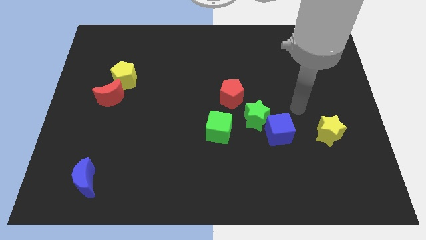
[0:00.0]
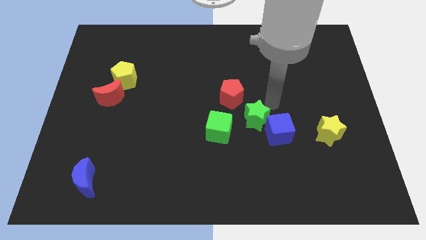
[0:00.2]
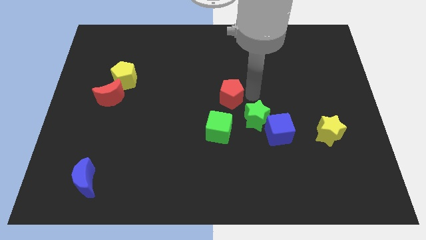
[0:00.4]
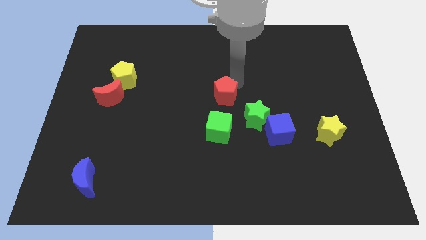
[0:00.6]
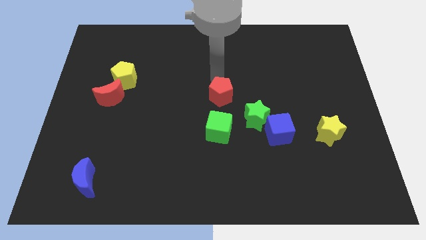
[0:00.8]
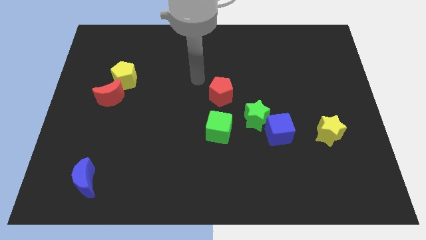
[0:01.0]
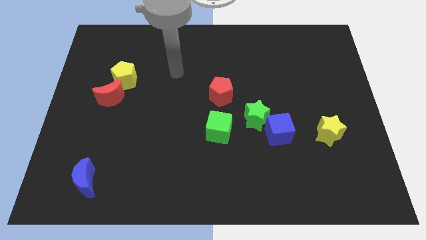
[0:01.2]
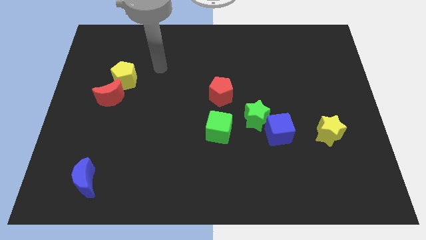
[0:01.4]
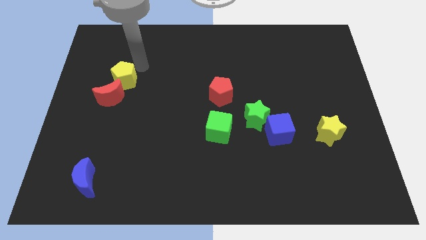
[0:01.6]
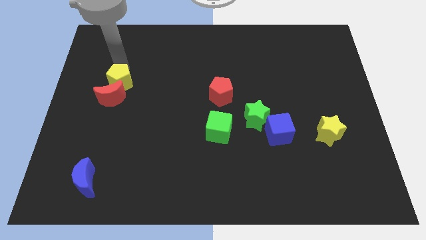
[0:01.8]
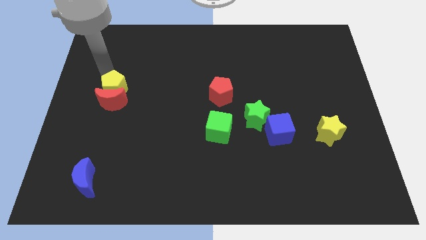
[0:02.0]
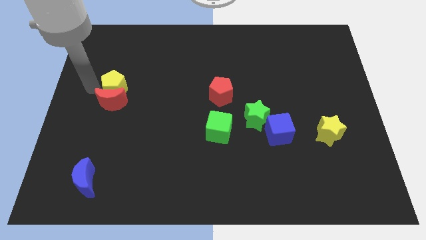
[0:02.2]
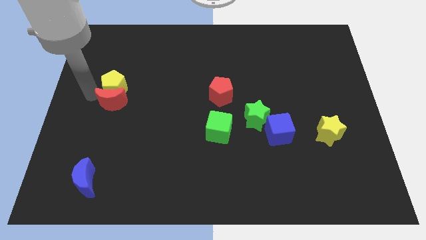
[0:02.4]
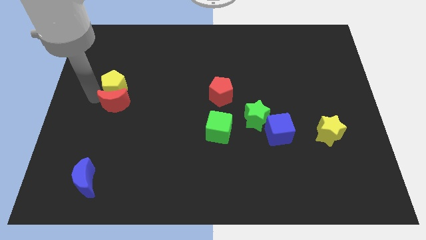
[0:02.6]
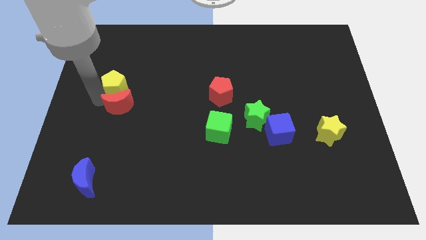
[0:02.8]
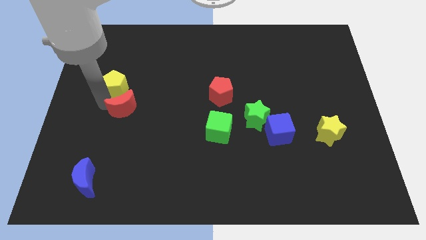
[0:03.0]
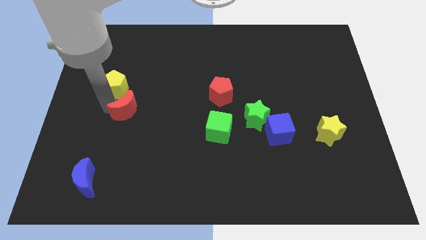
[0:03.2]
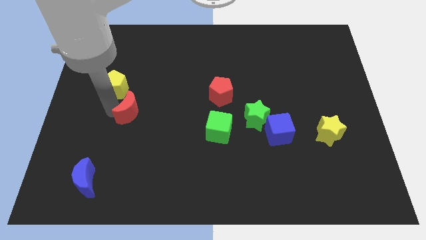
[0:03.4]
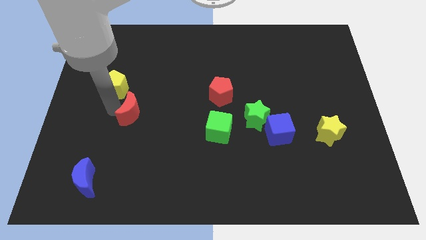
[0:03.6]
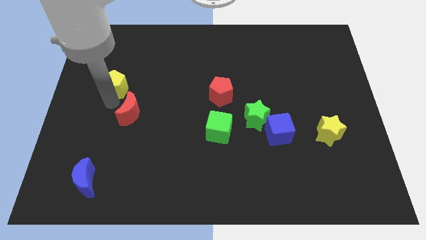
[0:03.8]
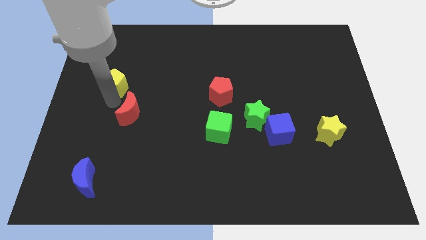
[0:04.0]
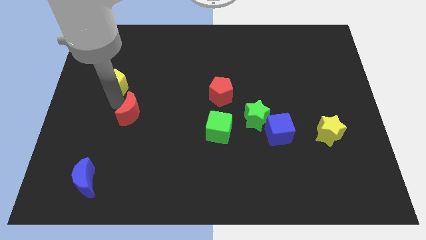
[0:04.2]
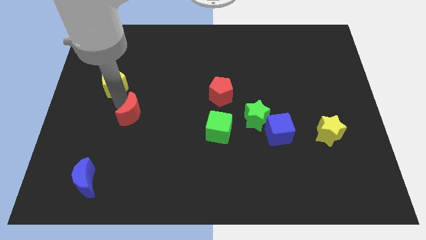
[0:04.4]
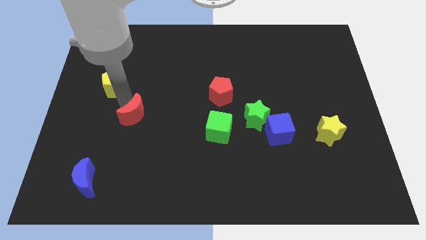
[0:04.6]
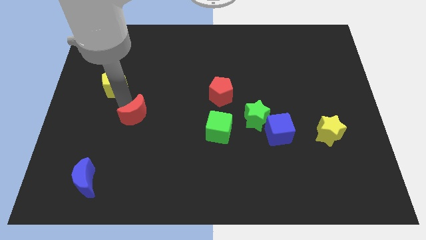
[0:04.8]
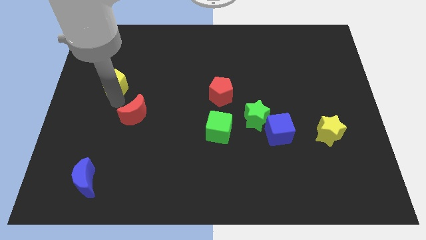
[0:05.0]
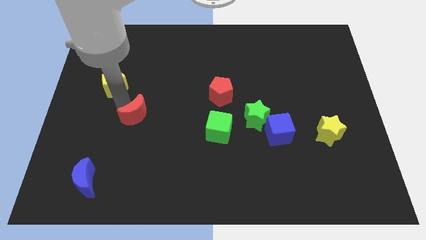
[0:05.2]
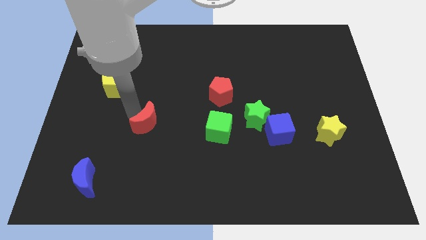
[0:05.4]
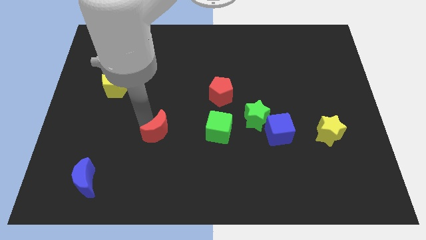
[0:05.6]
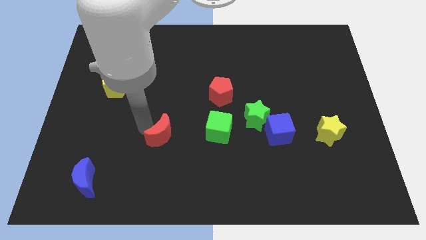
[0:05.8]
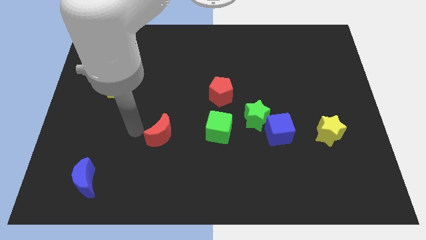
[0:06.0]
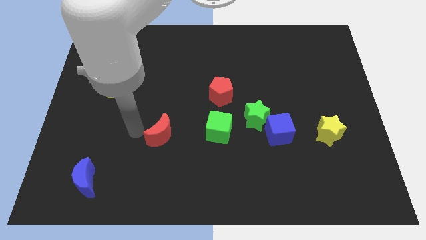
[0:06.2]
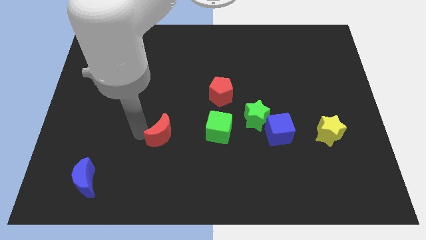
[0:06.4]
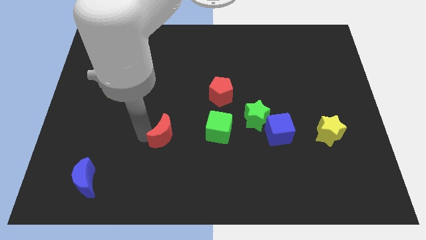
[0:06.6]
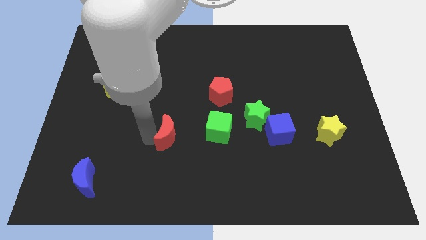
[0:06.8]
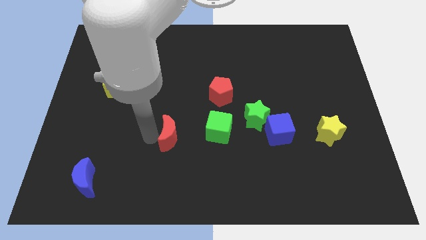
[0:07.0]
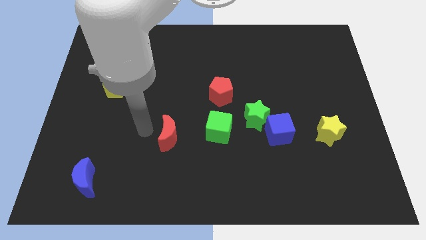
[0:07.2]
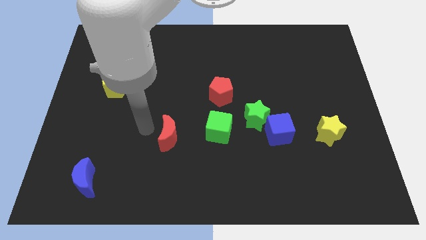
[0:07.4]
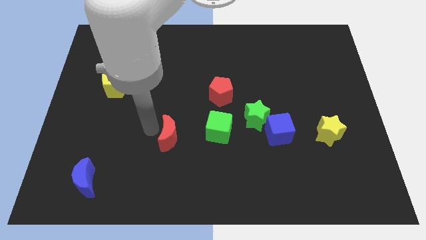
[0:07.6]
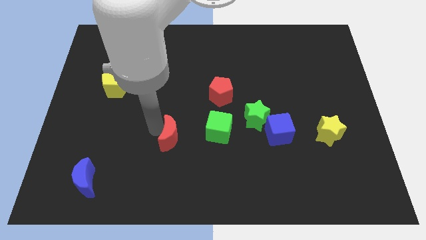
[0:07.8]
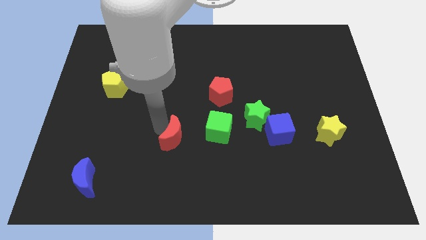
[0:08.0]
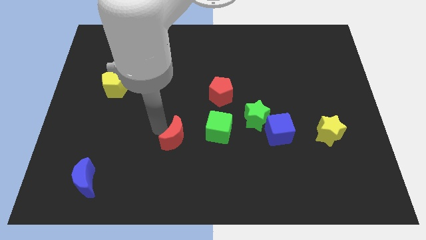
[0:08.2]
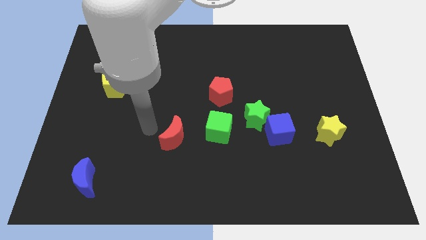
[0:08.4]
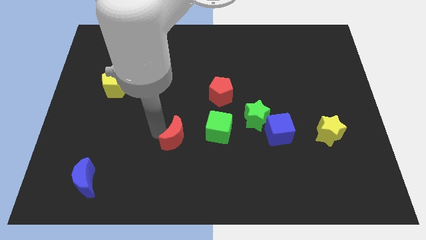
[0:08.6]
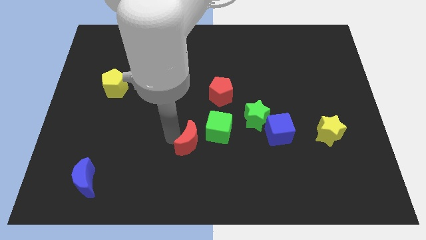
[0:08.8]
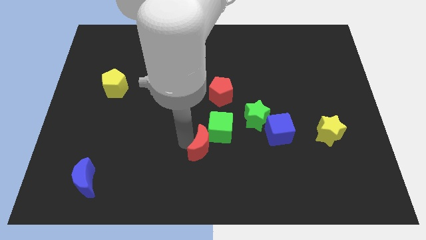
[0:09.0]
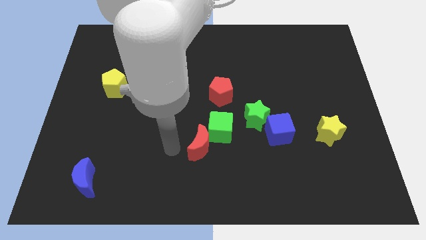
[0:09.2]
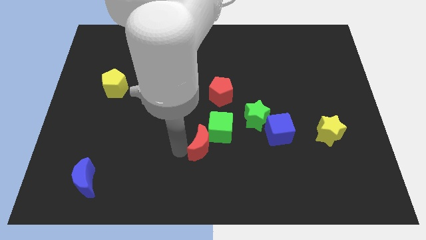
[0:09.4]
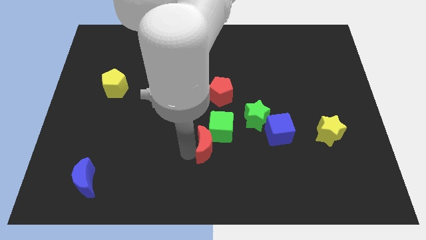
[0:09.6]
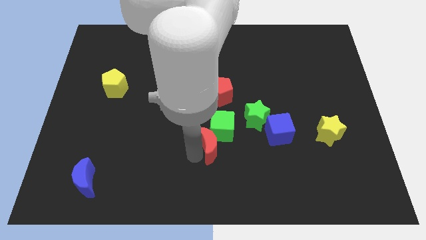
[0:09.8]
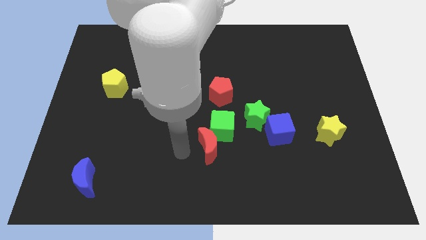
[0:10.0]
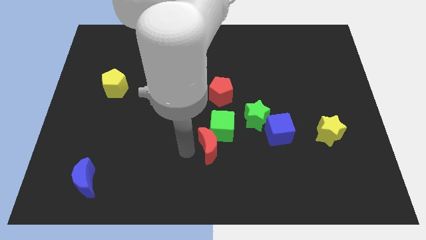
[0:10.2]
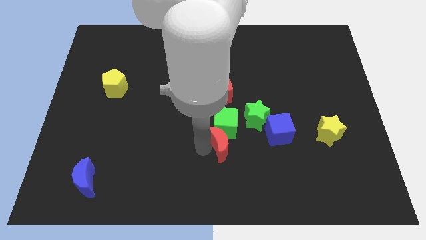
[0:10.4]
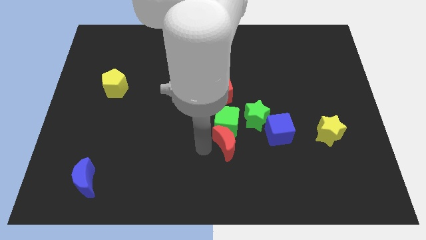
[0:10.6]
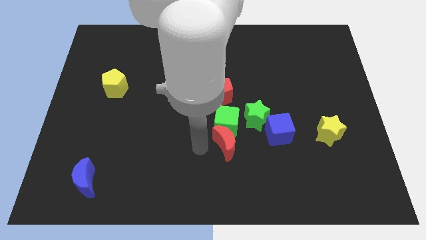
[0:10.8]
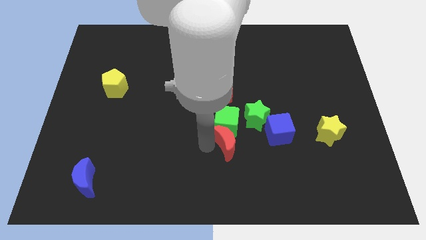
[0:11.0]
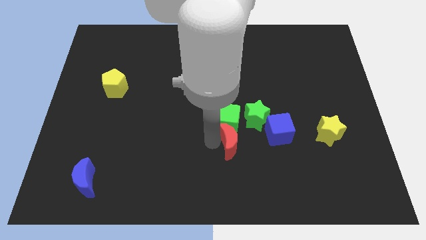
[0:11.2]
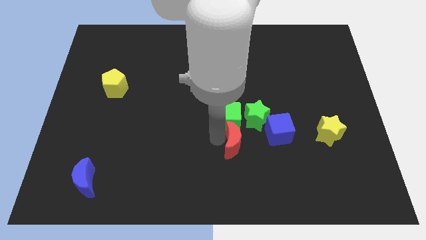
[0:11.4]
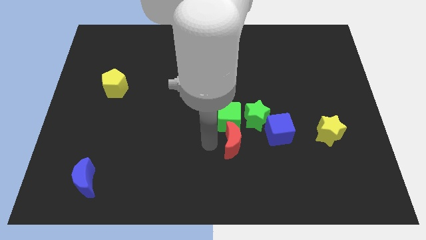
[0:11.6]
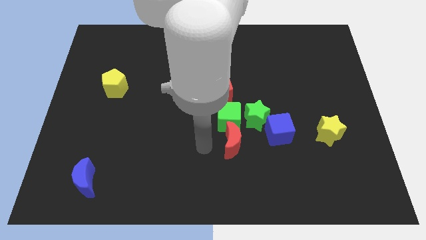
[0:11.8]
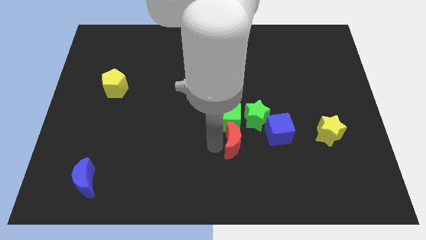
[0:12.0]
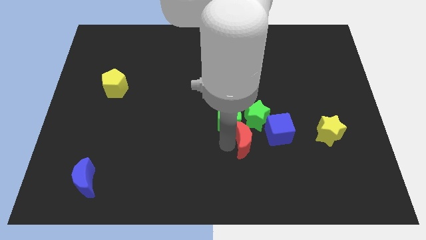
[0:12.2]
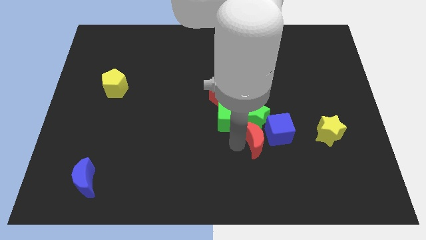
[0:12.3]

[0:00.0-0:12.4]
put the red moon close to the blue cube

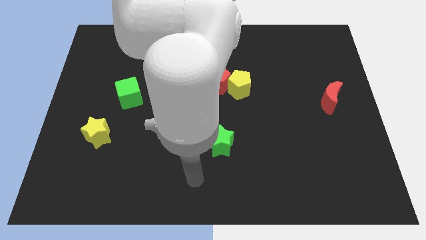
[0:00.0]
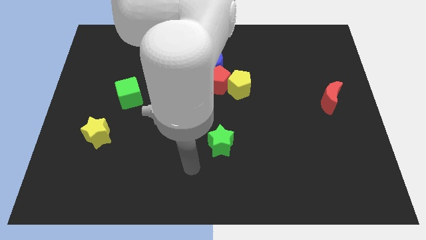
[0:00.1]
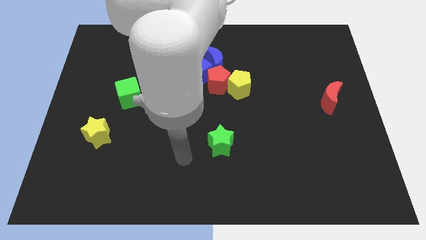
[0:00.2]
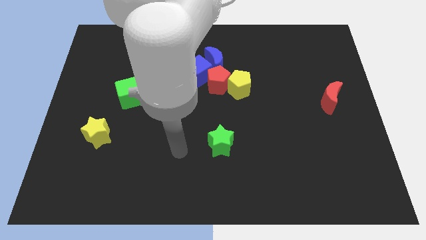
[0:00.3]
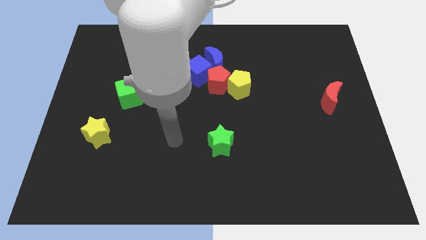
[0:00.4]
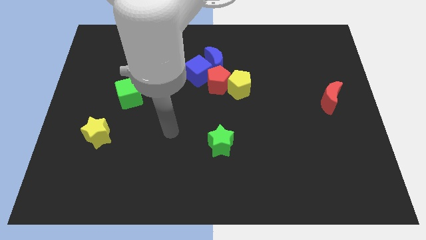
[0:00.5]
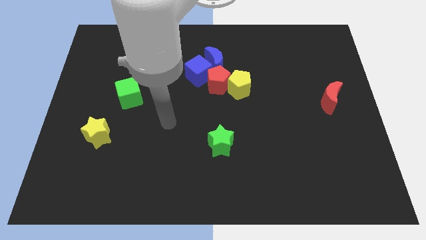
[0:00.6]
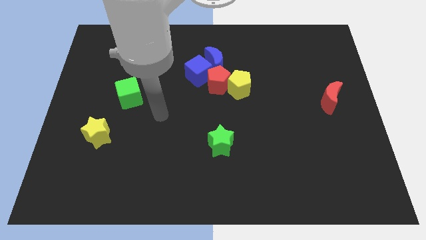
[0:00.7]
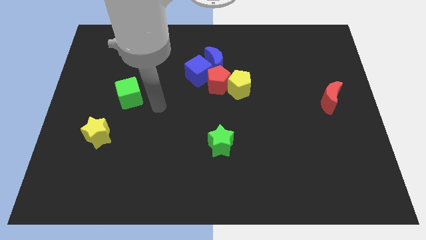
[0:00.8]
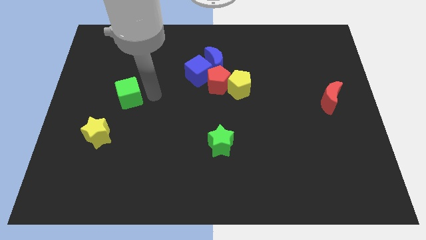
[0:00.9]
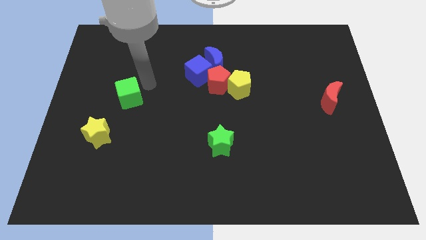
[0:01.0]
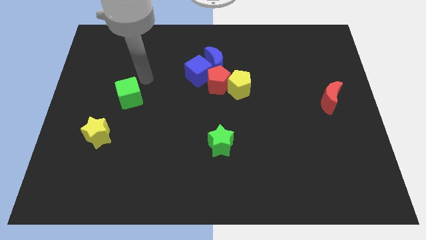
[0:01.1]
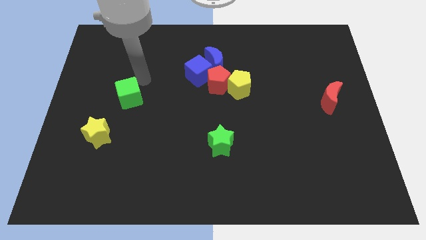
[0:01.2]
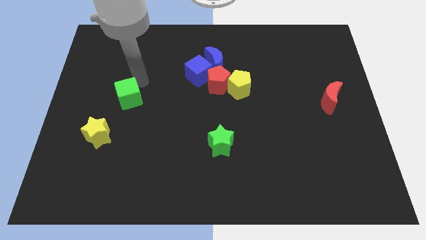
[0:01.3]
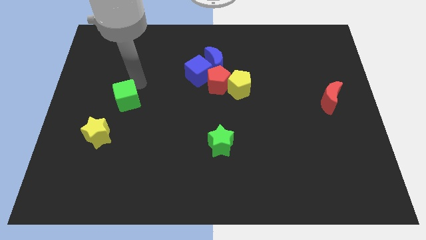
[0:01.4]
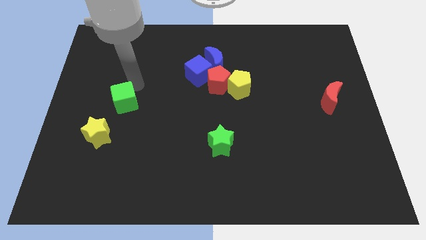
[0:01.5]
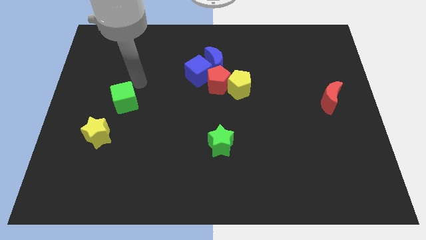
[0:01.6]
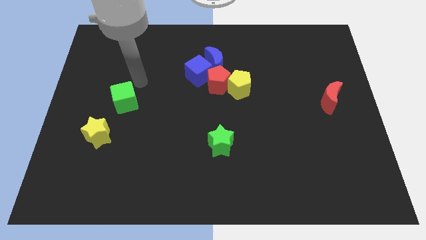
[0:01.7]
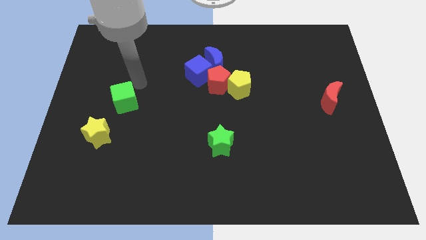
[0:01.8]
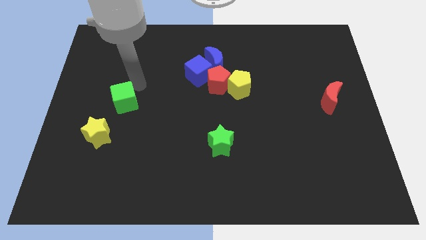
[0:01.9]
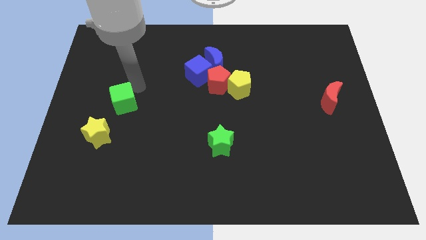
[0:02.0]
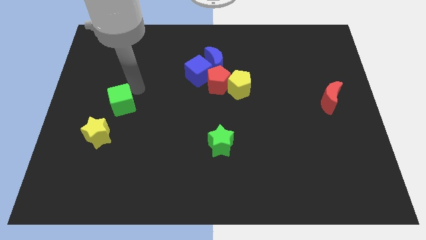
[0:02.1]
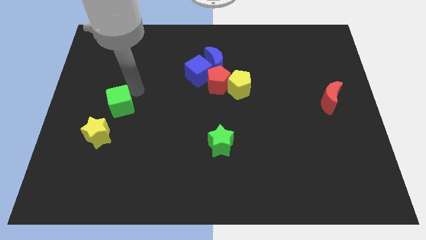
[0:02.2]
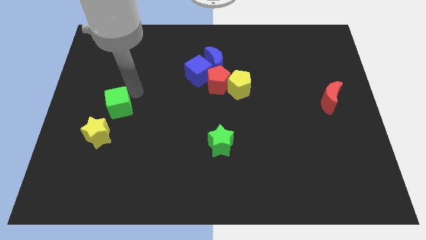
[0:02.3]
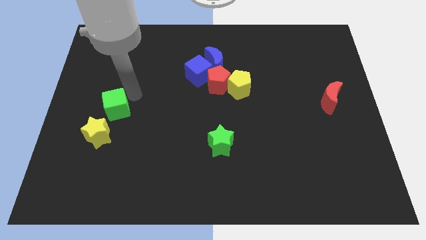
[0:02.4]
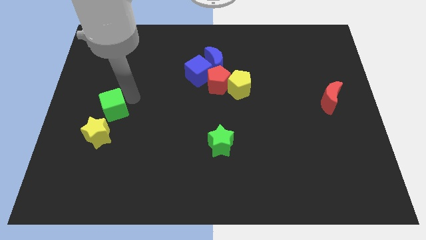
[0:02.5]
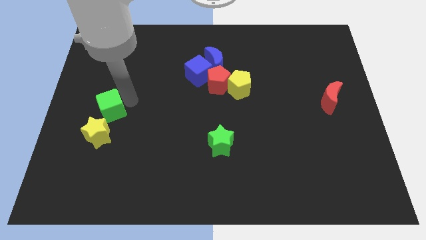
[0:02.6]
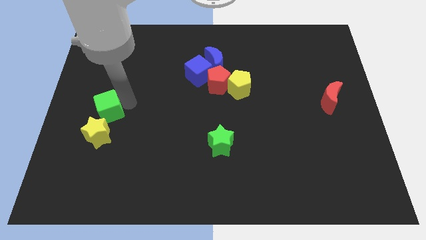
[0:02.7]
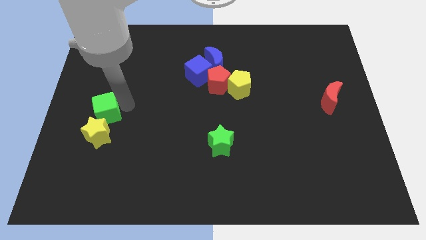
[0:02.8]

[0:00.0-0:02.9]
move the green cube close to the yellow star
